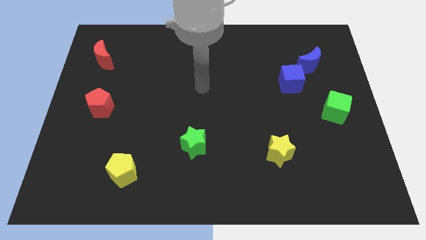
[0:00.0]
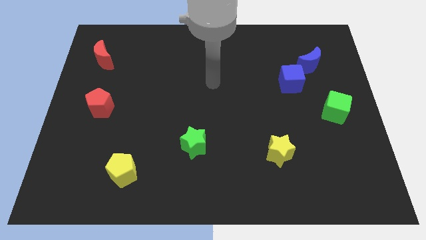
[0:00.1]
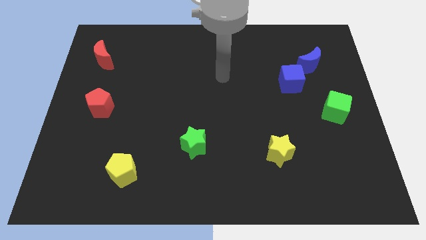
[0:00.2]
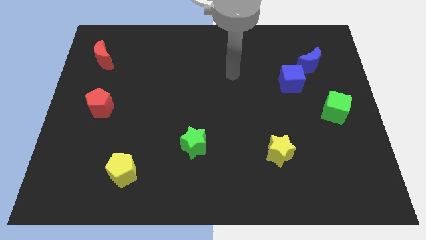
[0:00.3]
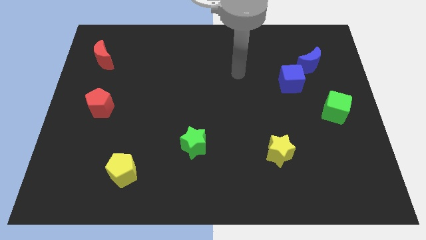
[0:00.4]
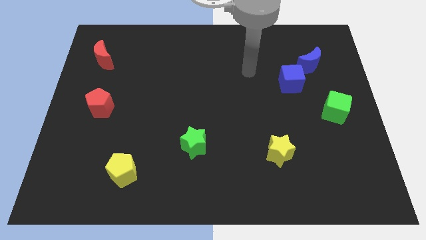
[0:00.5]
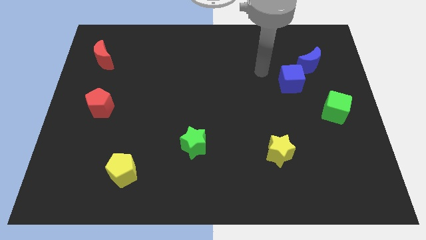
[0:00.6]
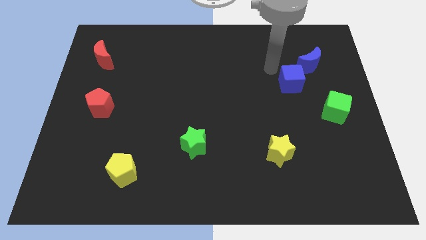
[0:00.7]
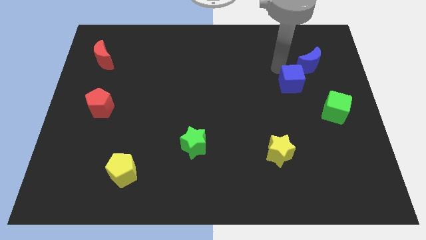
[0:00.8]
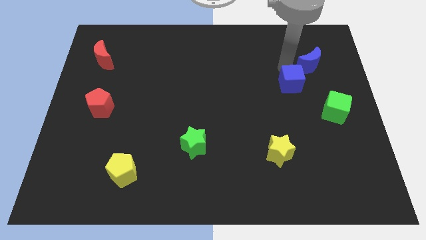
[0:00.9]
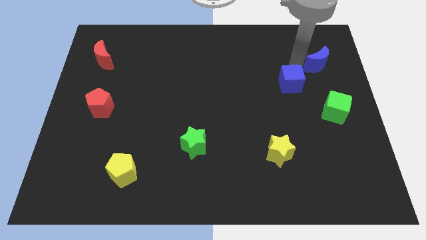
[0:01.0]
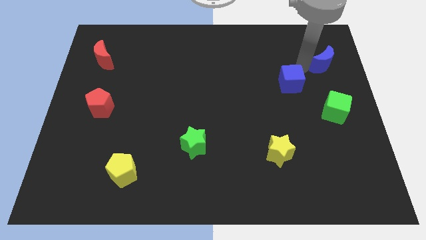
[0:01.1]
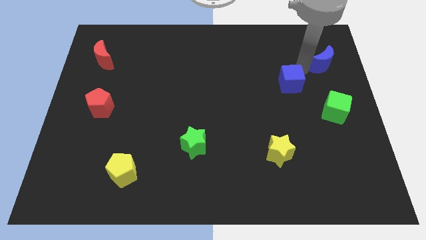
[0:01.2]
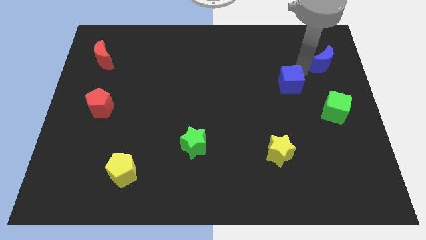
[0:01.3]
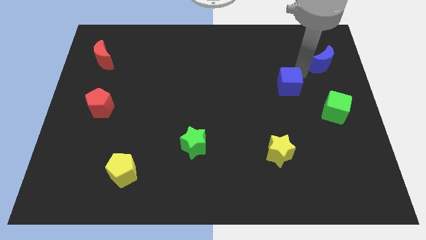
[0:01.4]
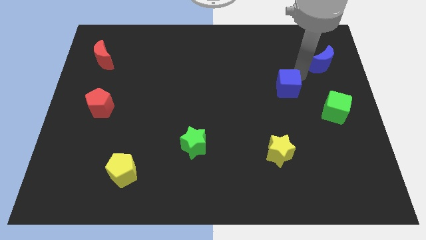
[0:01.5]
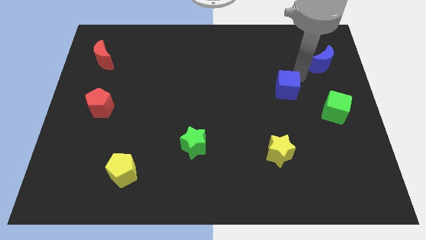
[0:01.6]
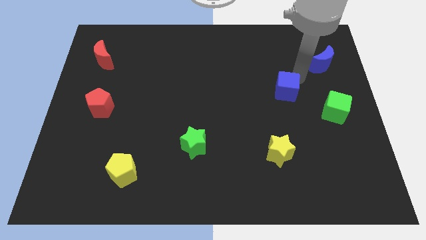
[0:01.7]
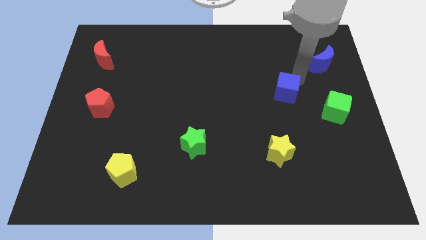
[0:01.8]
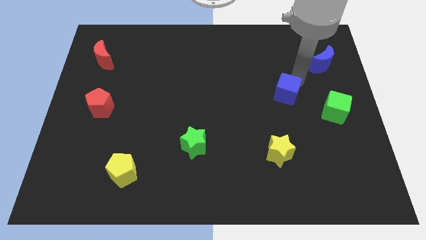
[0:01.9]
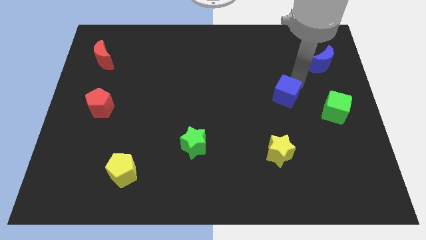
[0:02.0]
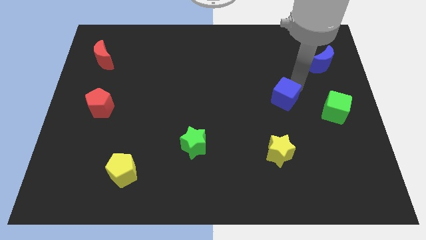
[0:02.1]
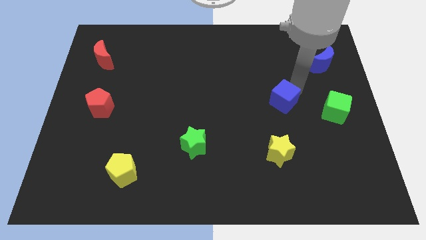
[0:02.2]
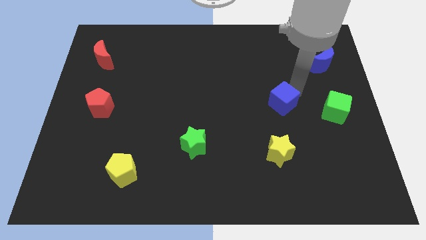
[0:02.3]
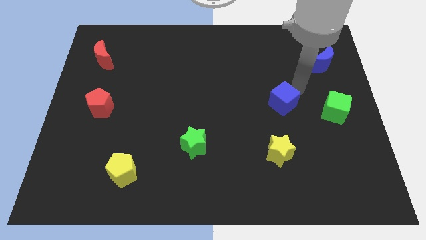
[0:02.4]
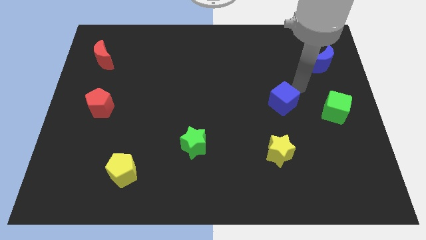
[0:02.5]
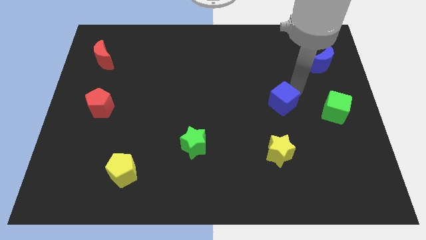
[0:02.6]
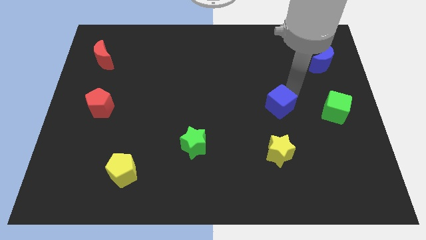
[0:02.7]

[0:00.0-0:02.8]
slide the blue cube down and left a bit

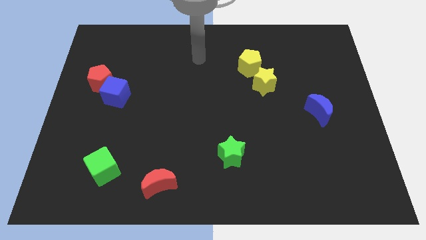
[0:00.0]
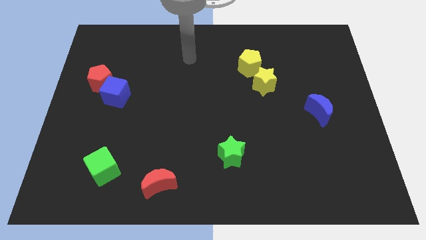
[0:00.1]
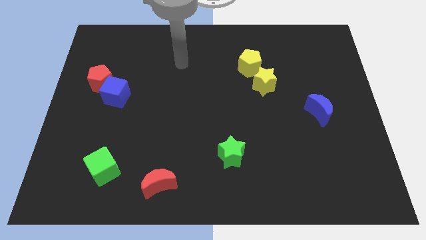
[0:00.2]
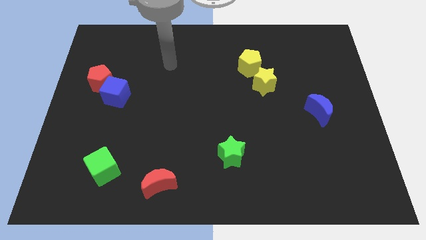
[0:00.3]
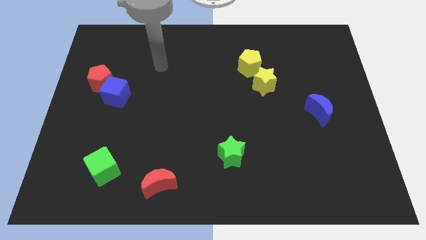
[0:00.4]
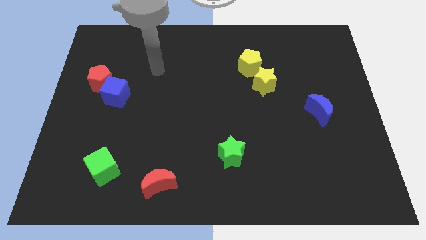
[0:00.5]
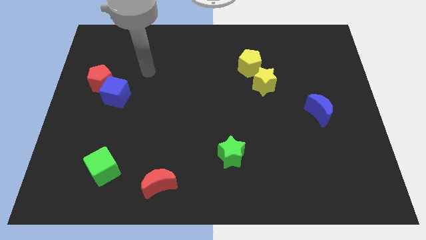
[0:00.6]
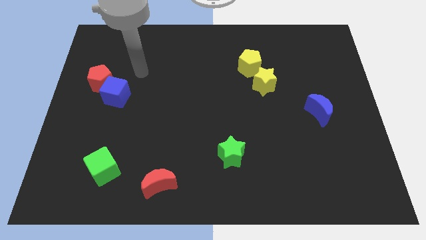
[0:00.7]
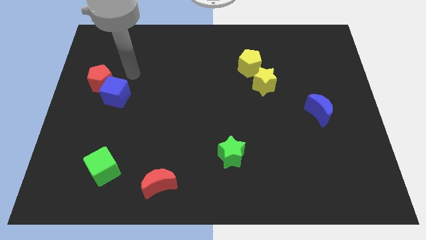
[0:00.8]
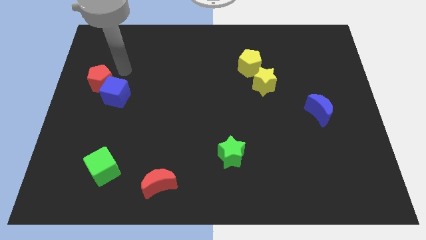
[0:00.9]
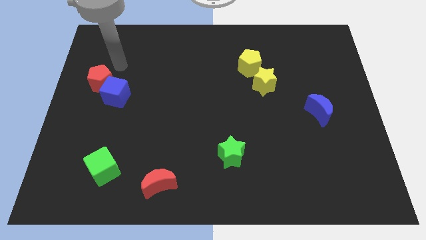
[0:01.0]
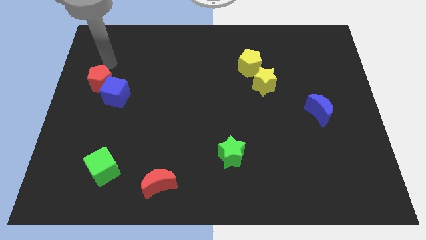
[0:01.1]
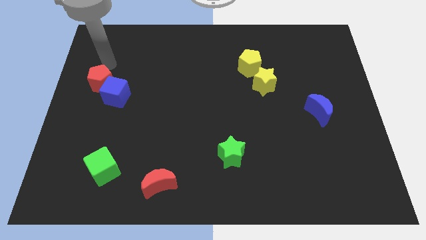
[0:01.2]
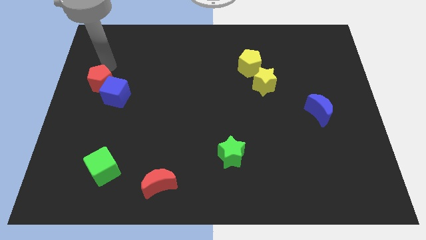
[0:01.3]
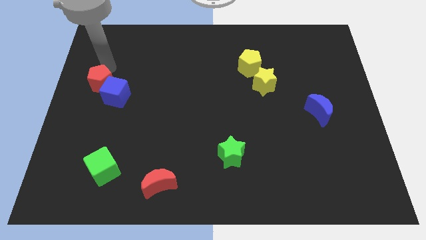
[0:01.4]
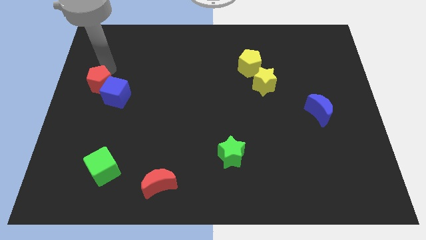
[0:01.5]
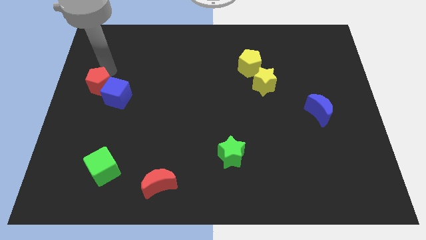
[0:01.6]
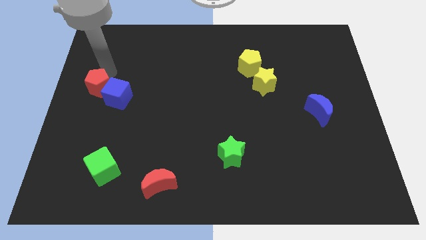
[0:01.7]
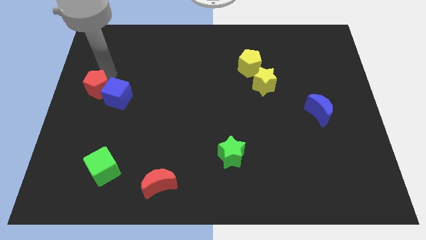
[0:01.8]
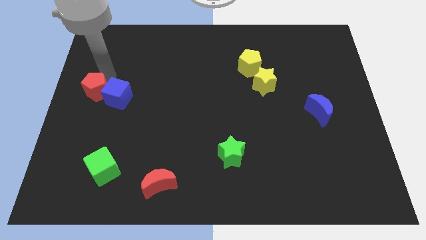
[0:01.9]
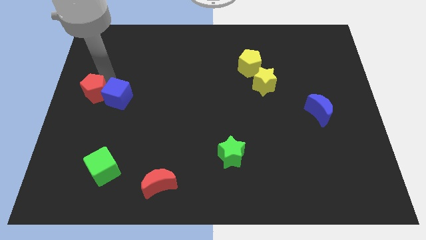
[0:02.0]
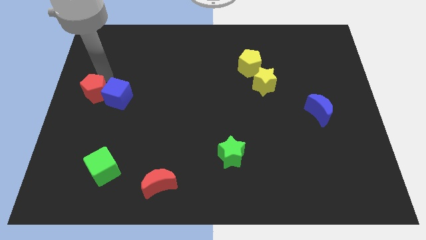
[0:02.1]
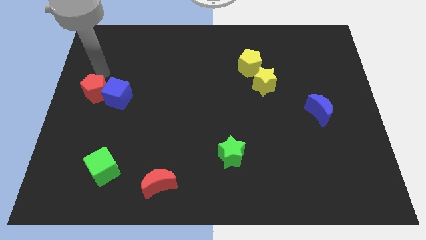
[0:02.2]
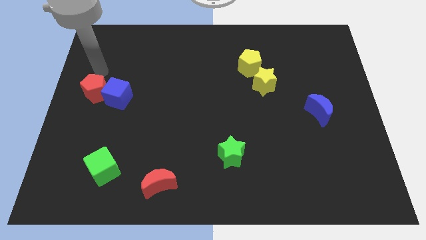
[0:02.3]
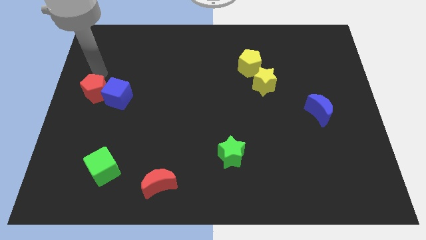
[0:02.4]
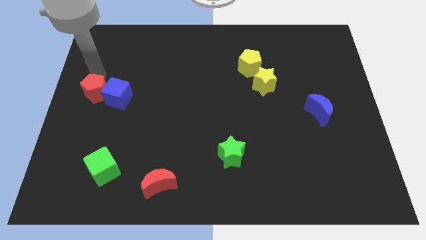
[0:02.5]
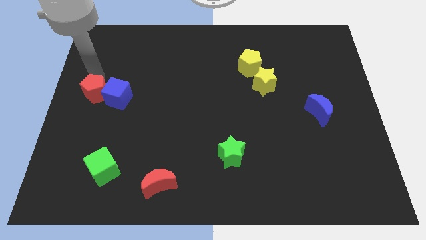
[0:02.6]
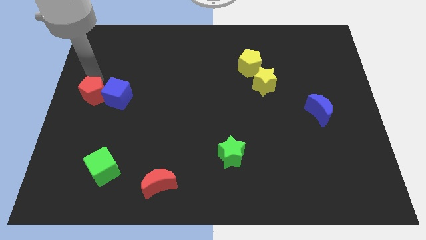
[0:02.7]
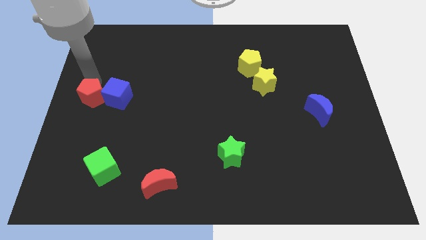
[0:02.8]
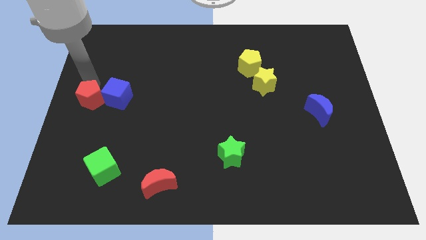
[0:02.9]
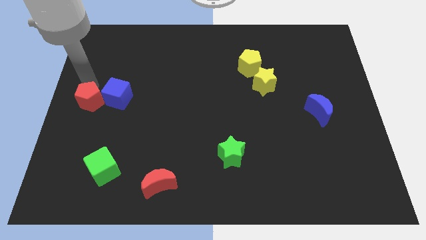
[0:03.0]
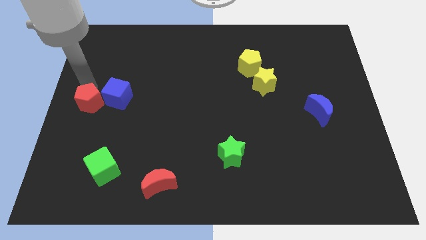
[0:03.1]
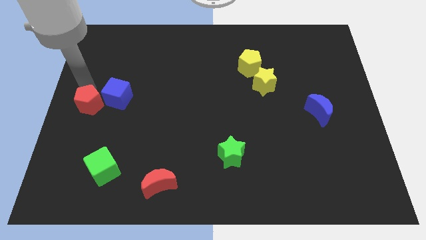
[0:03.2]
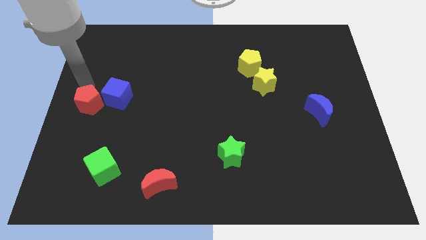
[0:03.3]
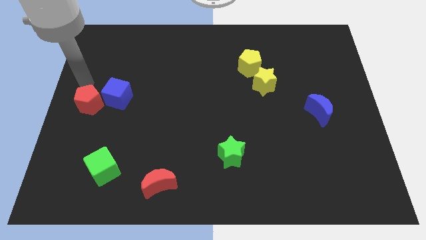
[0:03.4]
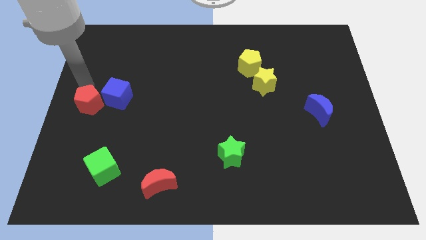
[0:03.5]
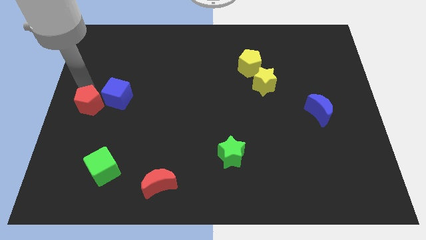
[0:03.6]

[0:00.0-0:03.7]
slightly slide the red pentagon downwards

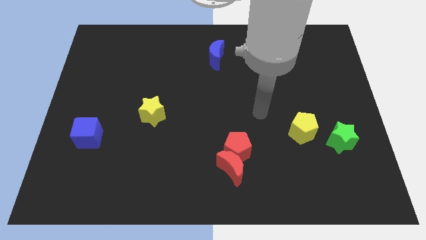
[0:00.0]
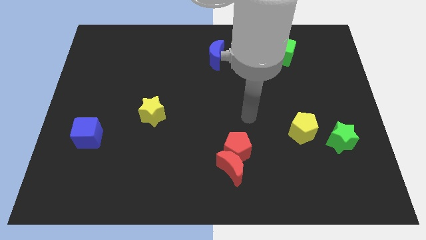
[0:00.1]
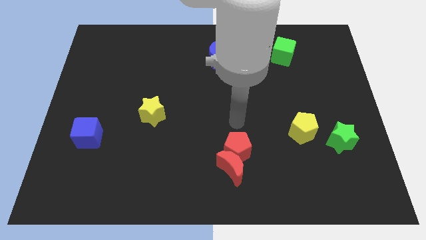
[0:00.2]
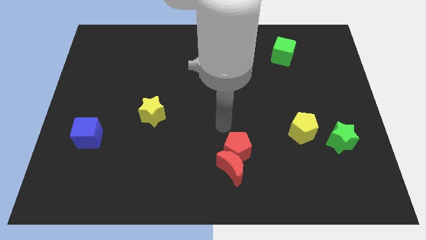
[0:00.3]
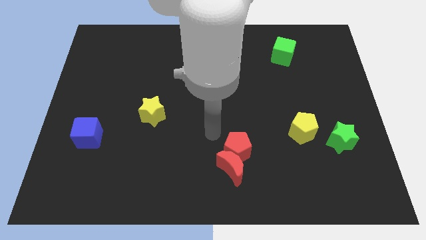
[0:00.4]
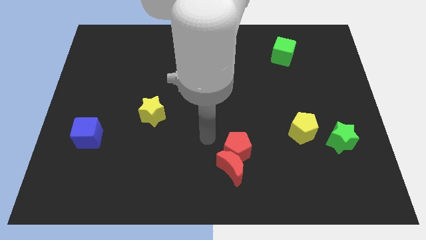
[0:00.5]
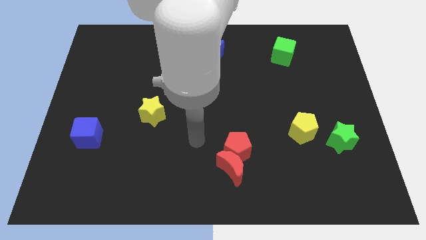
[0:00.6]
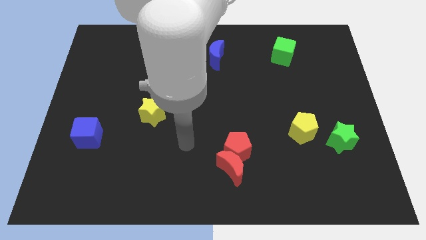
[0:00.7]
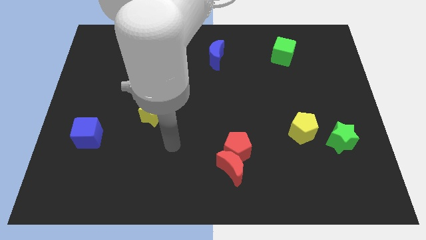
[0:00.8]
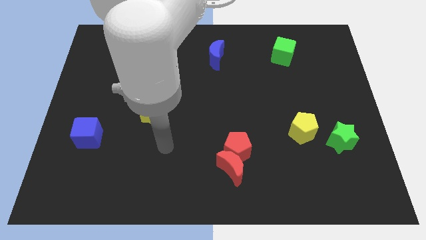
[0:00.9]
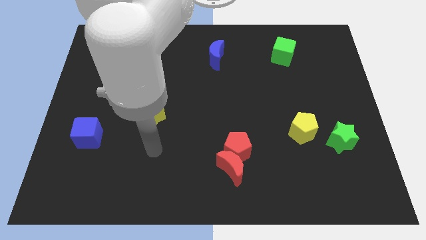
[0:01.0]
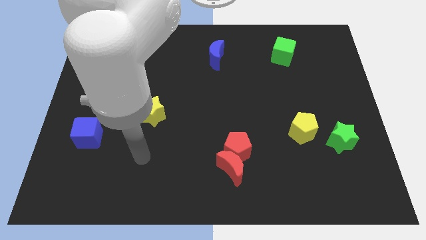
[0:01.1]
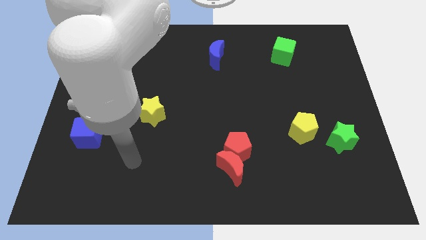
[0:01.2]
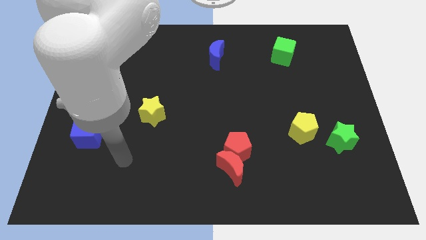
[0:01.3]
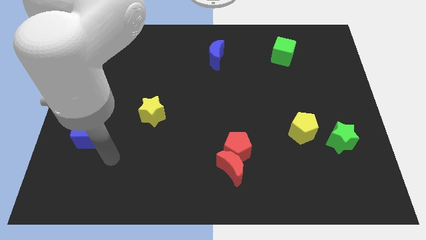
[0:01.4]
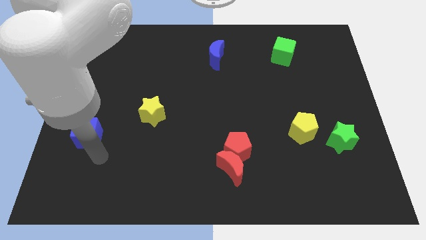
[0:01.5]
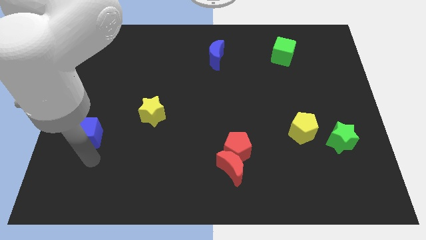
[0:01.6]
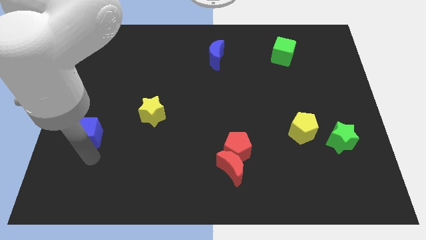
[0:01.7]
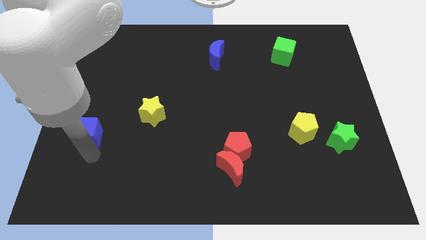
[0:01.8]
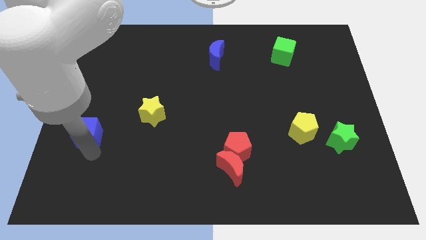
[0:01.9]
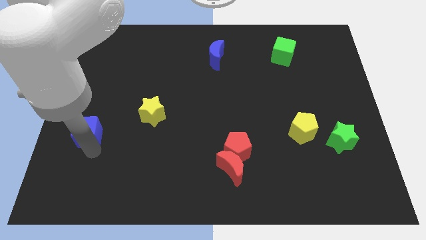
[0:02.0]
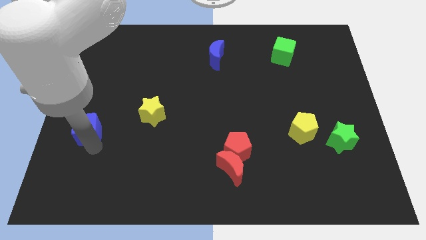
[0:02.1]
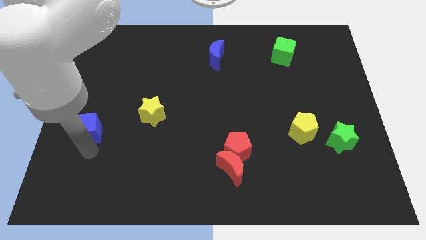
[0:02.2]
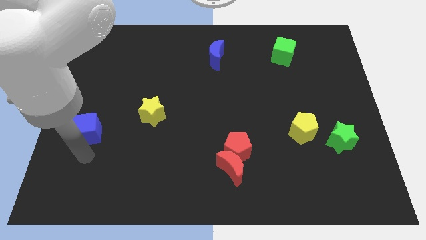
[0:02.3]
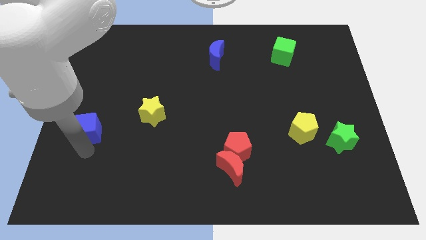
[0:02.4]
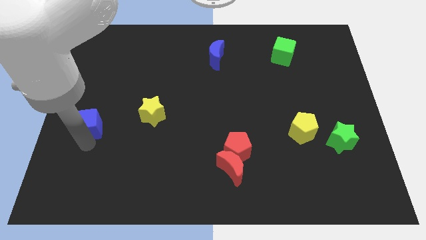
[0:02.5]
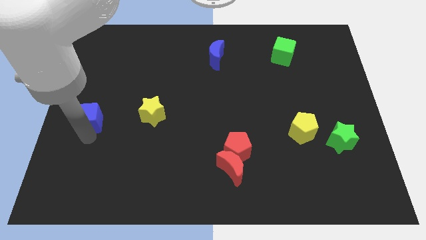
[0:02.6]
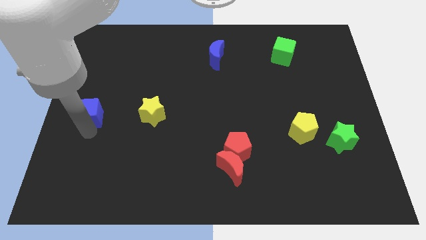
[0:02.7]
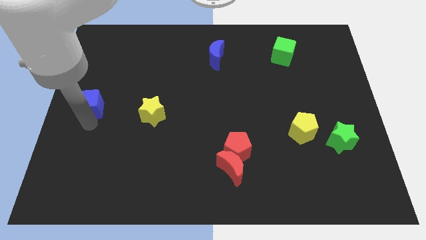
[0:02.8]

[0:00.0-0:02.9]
move the blue cube a little up
